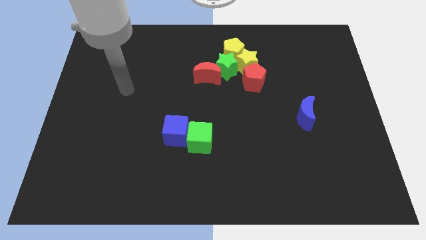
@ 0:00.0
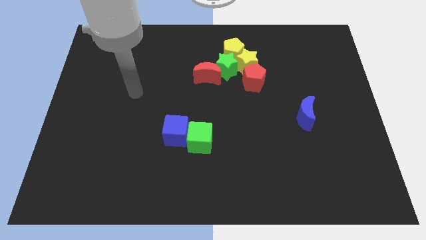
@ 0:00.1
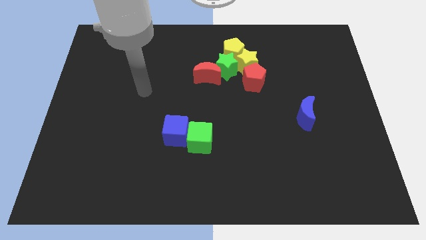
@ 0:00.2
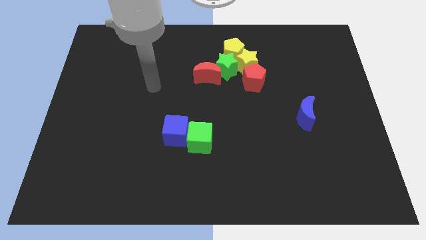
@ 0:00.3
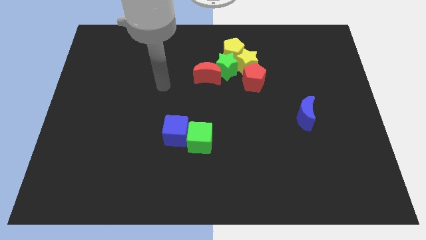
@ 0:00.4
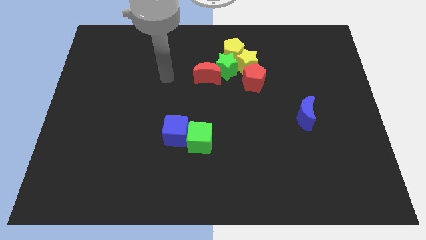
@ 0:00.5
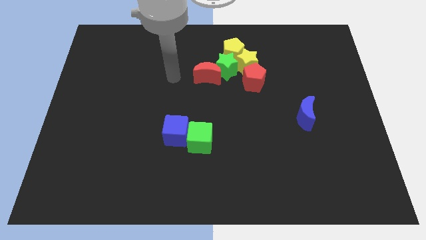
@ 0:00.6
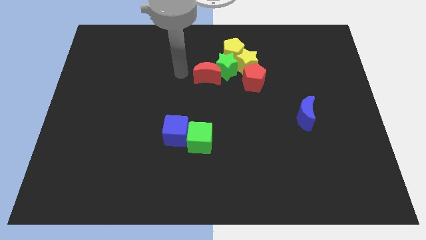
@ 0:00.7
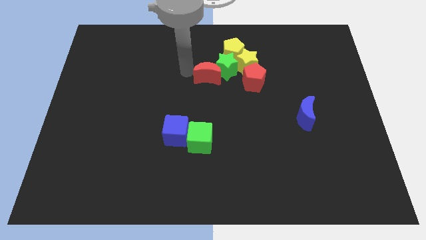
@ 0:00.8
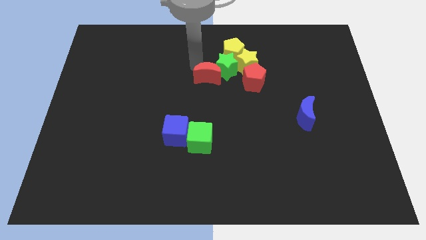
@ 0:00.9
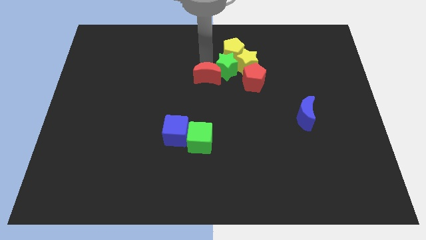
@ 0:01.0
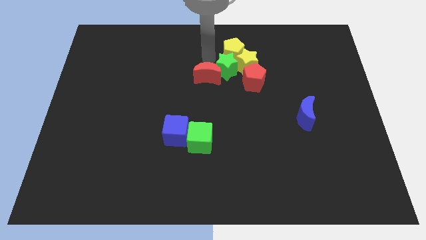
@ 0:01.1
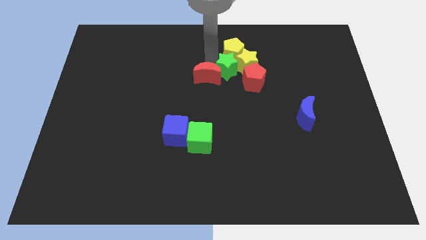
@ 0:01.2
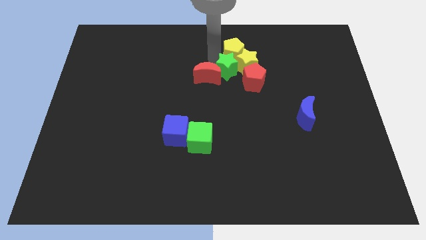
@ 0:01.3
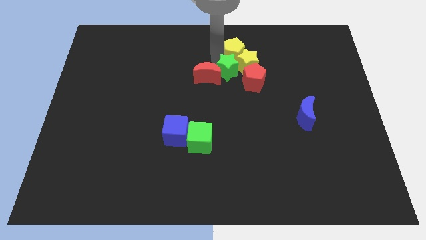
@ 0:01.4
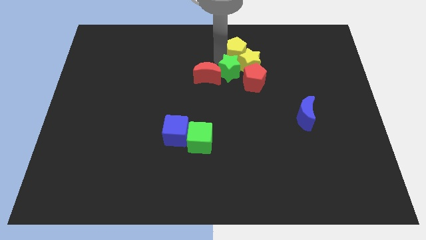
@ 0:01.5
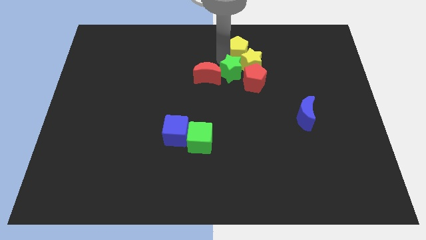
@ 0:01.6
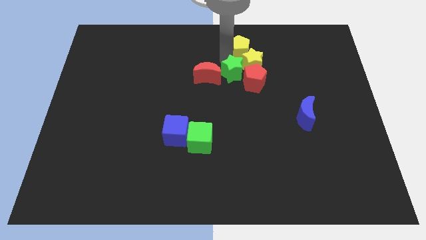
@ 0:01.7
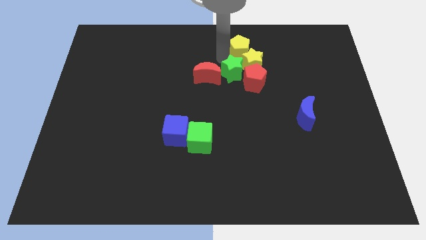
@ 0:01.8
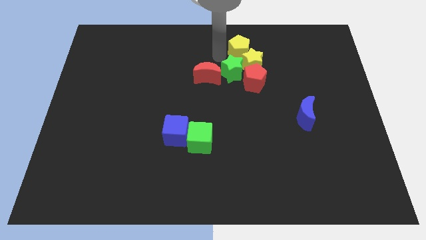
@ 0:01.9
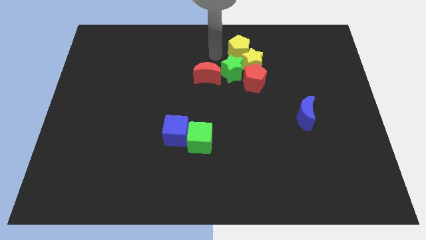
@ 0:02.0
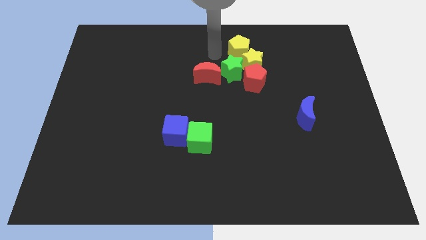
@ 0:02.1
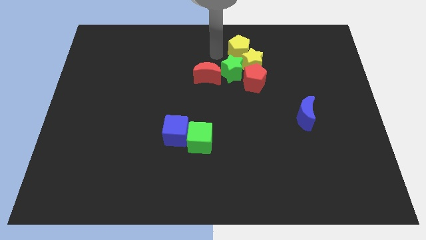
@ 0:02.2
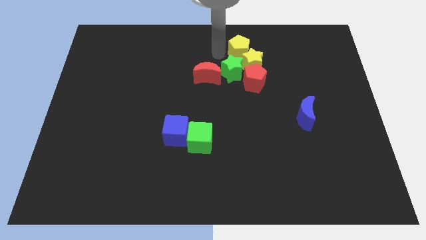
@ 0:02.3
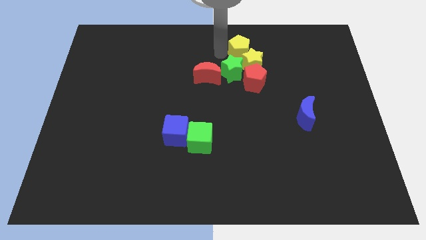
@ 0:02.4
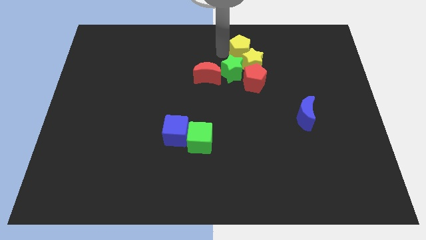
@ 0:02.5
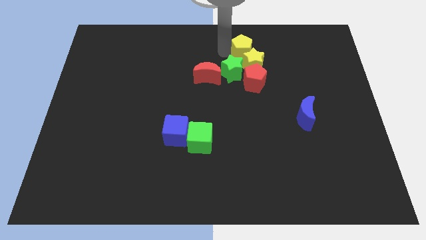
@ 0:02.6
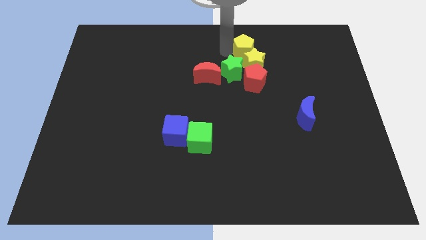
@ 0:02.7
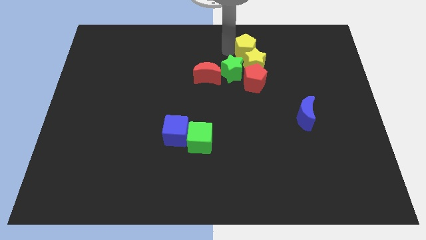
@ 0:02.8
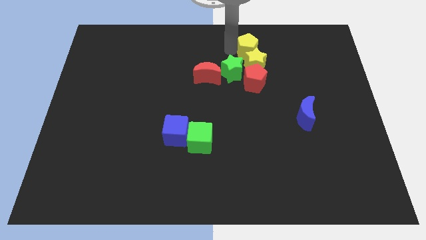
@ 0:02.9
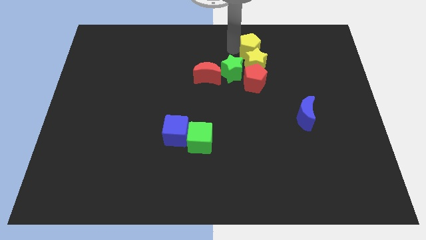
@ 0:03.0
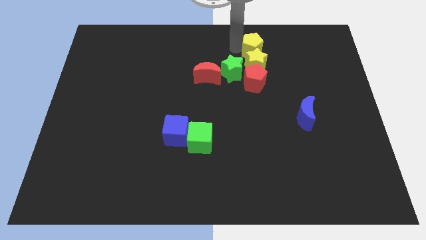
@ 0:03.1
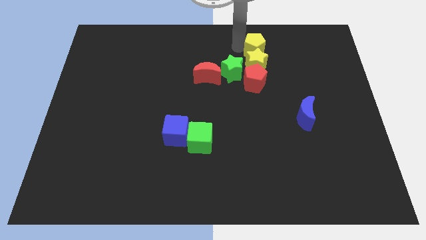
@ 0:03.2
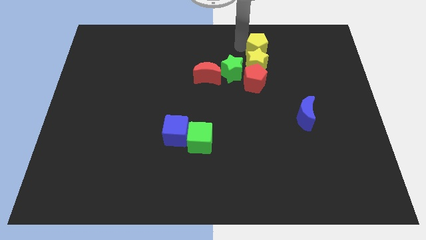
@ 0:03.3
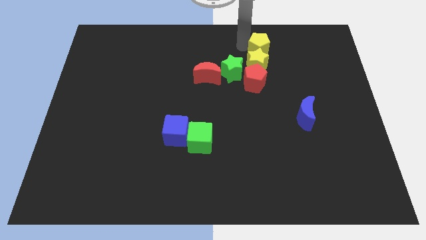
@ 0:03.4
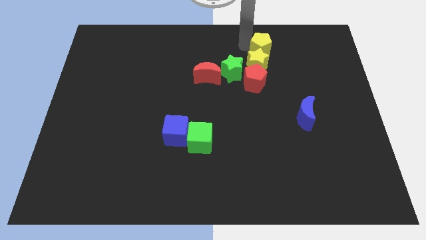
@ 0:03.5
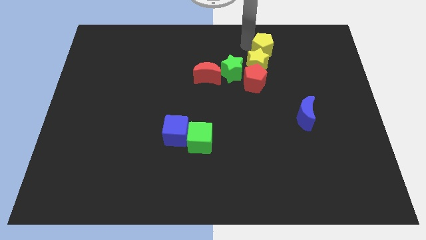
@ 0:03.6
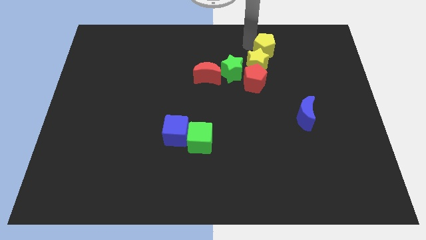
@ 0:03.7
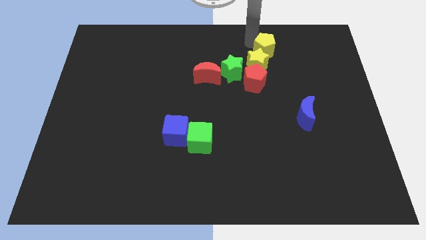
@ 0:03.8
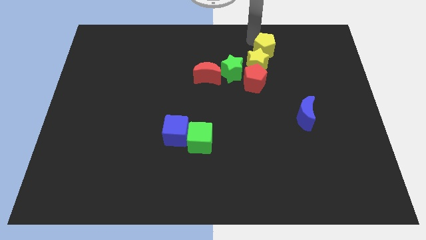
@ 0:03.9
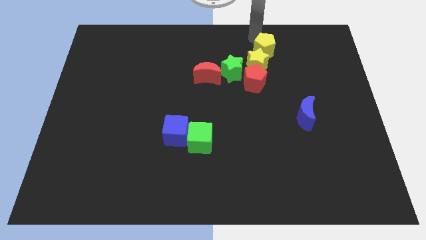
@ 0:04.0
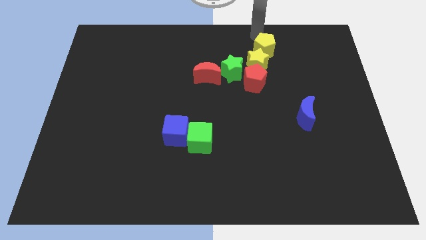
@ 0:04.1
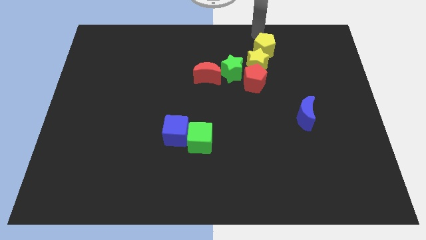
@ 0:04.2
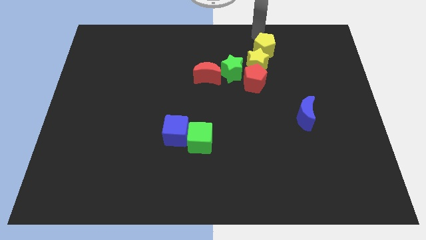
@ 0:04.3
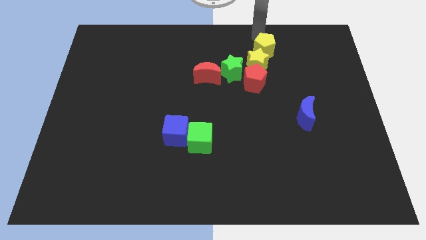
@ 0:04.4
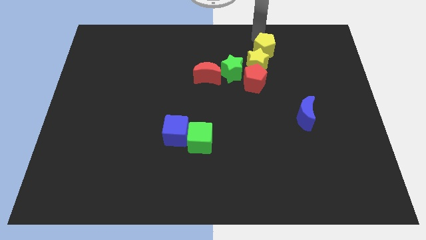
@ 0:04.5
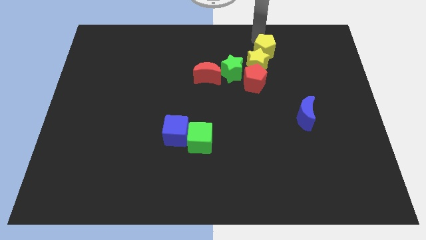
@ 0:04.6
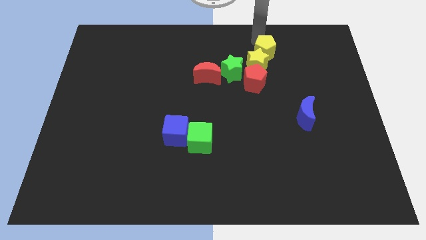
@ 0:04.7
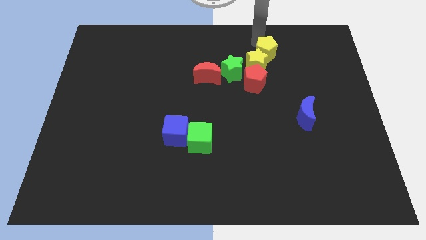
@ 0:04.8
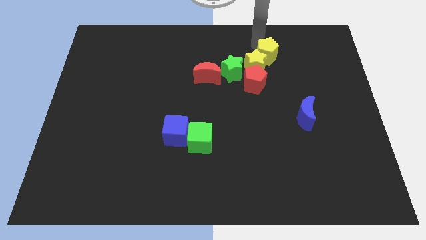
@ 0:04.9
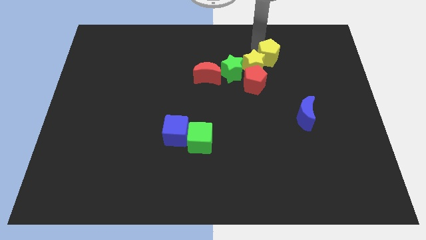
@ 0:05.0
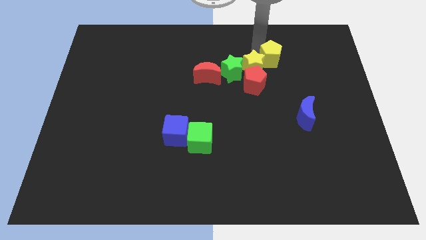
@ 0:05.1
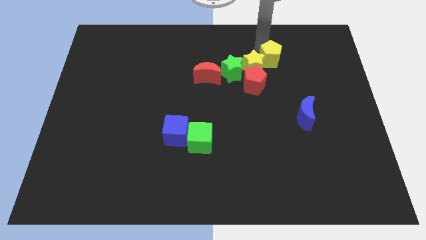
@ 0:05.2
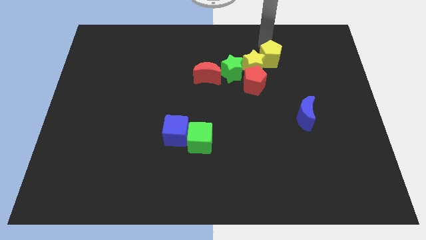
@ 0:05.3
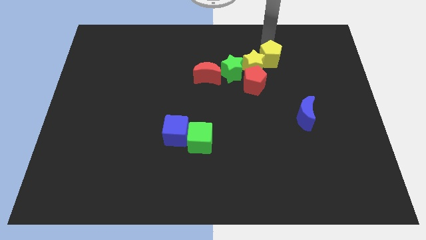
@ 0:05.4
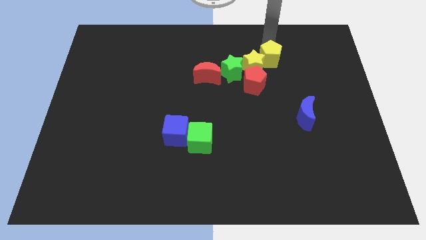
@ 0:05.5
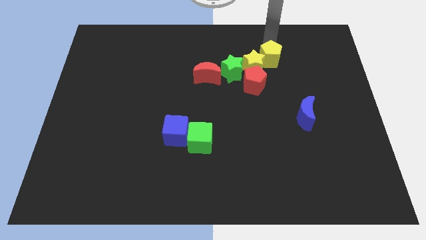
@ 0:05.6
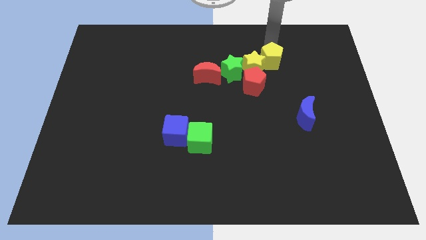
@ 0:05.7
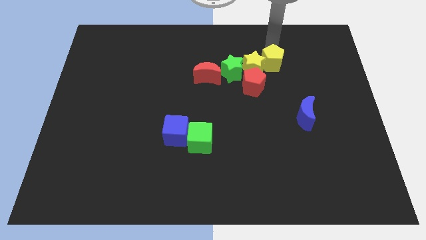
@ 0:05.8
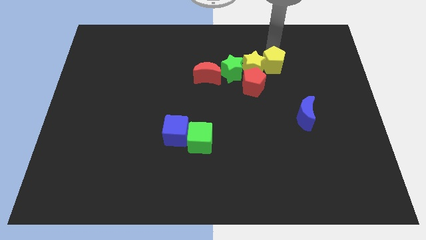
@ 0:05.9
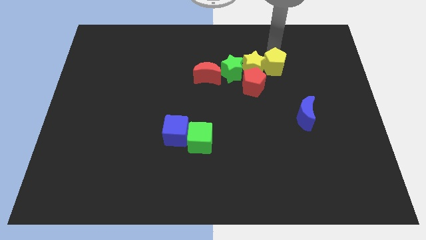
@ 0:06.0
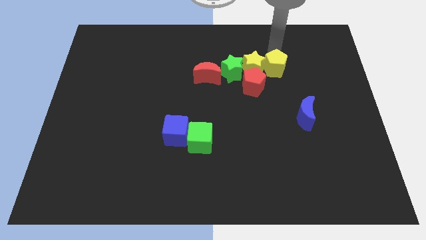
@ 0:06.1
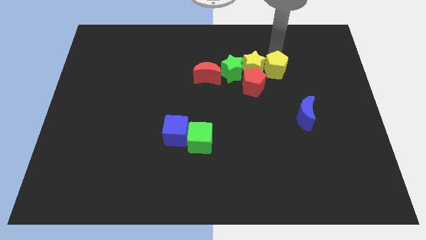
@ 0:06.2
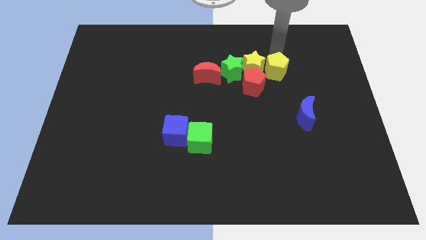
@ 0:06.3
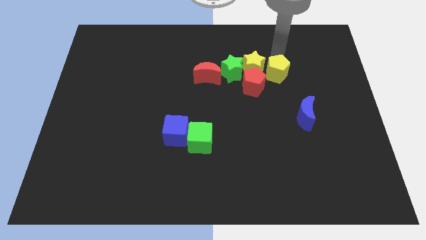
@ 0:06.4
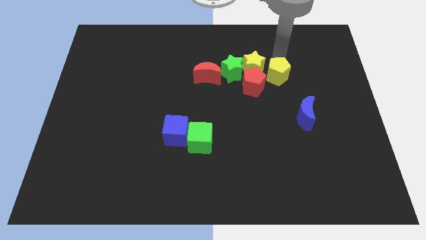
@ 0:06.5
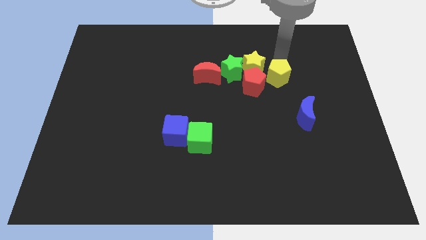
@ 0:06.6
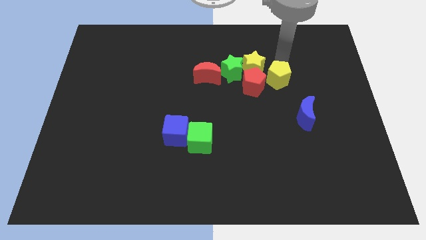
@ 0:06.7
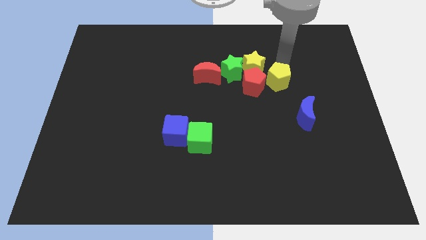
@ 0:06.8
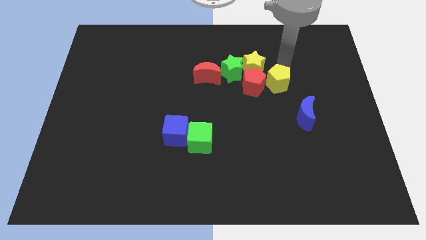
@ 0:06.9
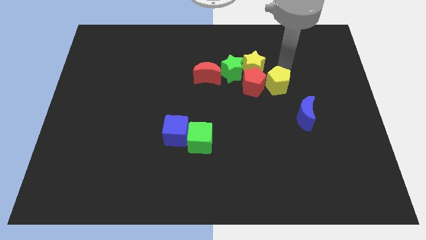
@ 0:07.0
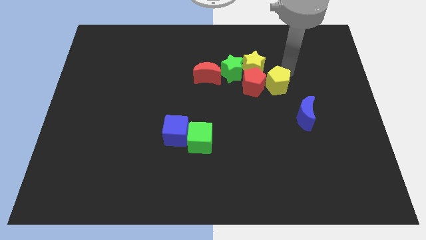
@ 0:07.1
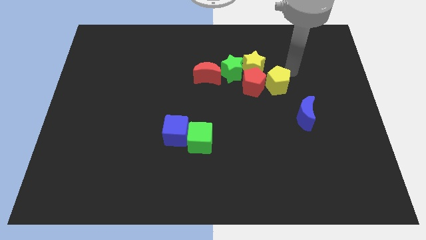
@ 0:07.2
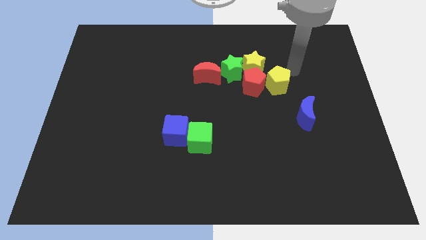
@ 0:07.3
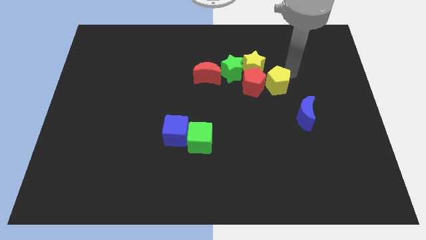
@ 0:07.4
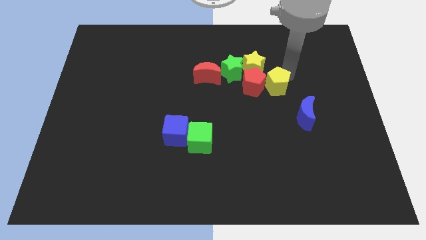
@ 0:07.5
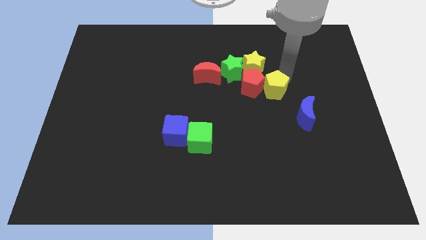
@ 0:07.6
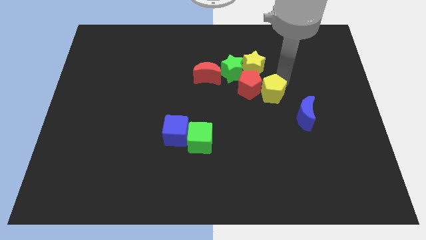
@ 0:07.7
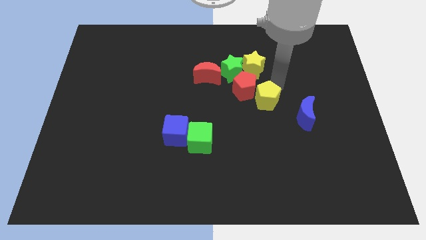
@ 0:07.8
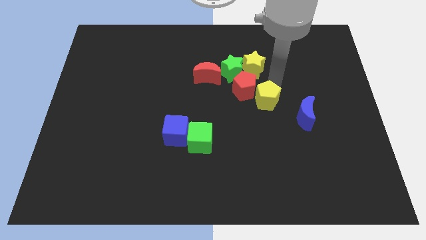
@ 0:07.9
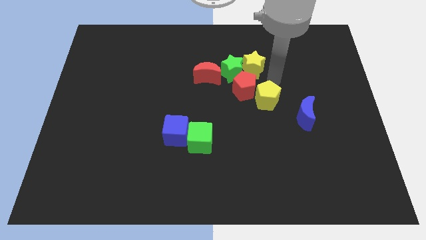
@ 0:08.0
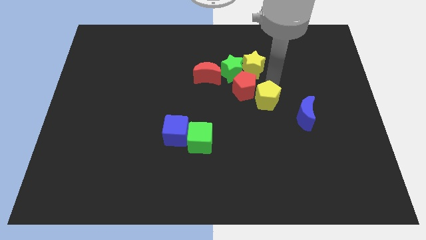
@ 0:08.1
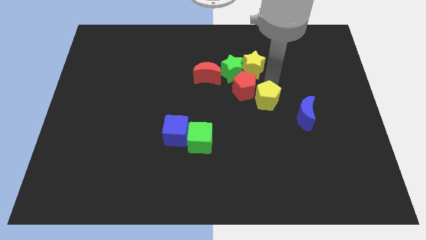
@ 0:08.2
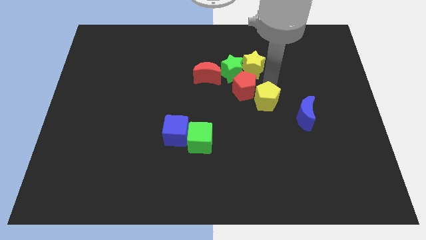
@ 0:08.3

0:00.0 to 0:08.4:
move the yellow pentagon to the left side of the blue moon
